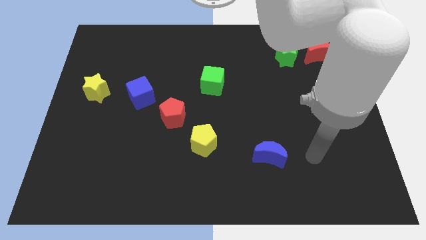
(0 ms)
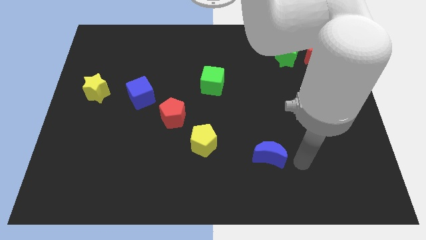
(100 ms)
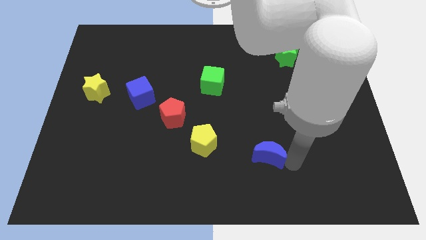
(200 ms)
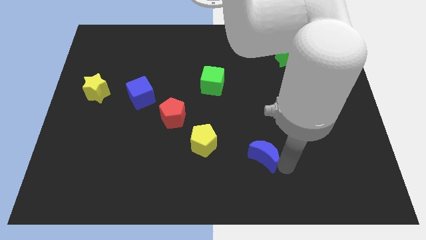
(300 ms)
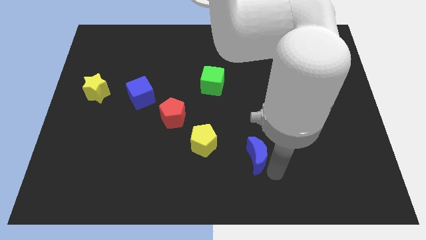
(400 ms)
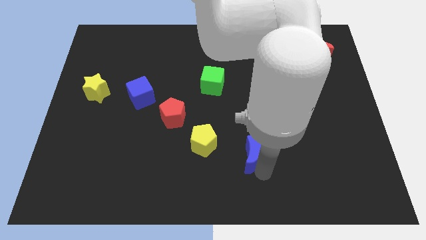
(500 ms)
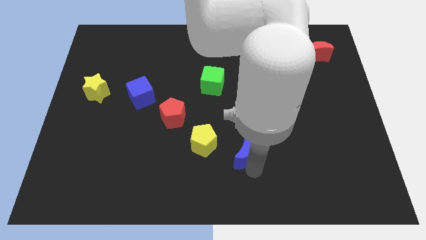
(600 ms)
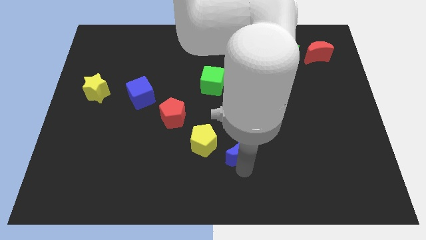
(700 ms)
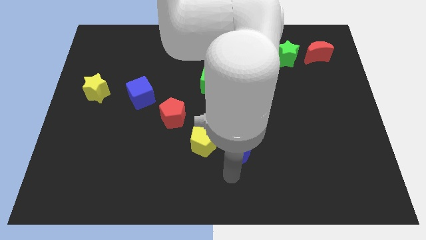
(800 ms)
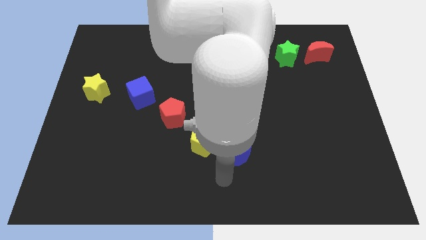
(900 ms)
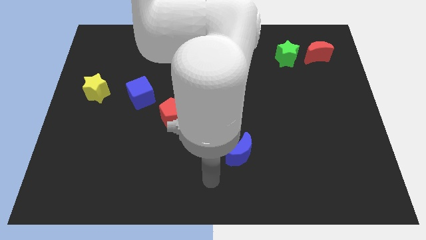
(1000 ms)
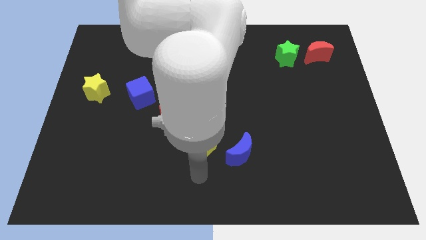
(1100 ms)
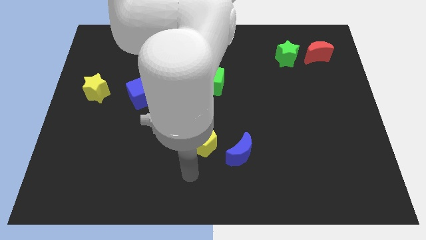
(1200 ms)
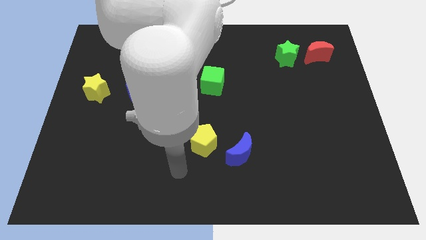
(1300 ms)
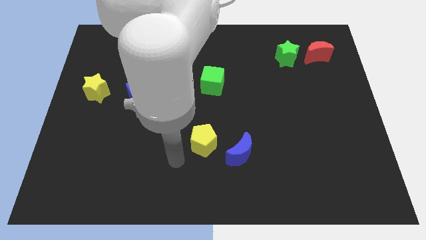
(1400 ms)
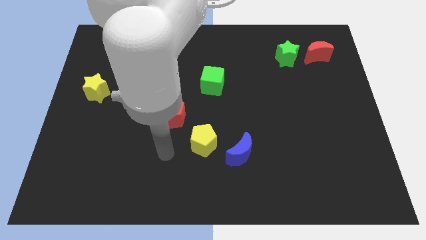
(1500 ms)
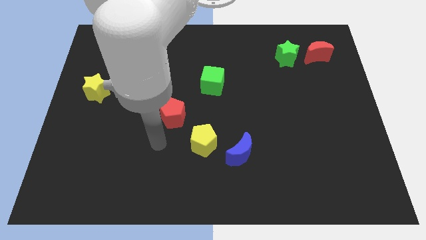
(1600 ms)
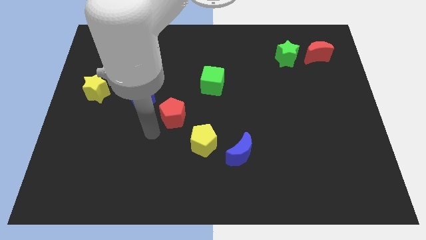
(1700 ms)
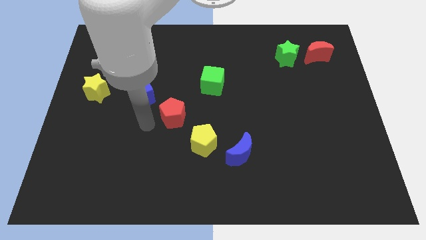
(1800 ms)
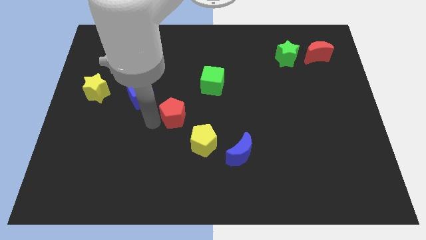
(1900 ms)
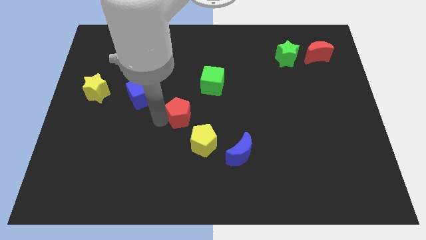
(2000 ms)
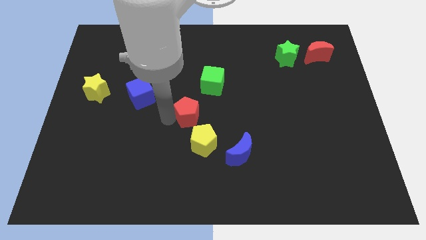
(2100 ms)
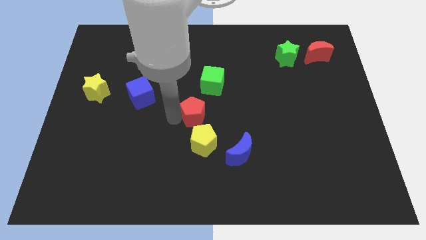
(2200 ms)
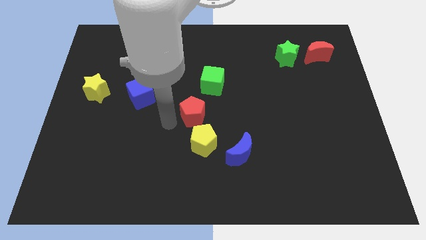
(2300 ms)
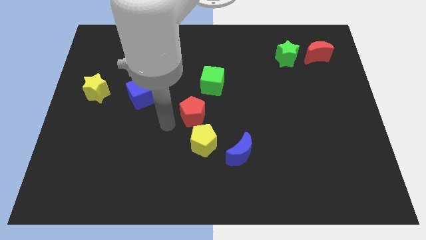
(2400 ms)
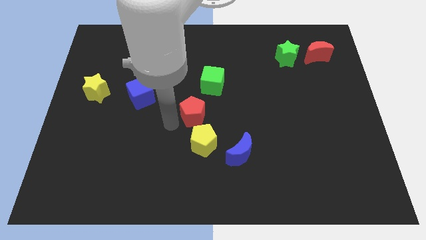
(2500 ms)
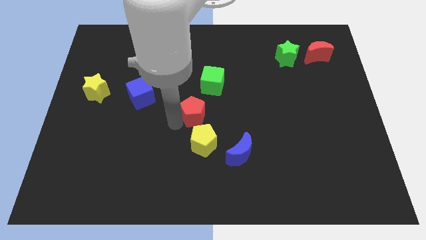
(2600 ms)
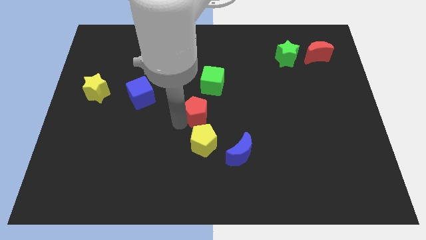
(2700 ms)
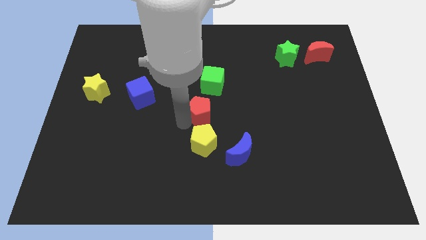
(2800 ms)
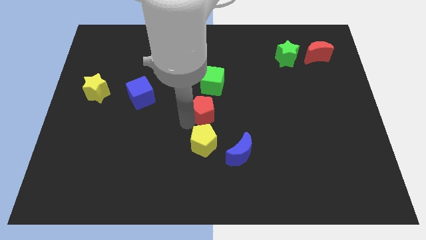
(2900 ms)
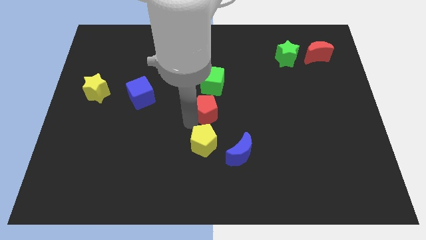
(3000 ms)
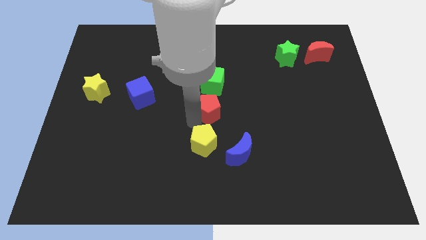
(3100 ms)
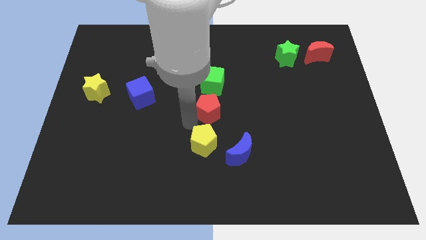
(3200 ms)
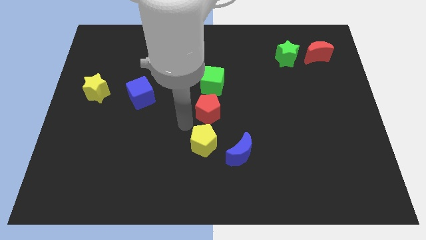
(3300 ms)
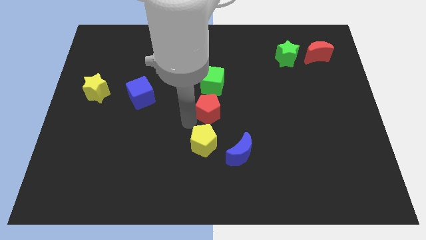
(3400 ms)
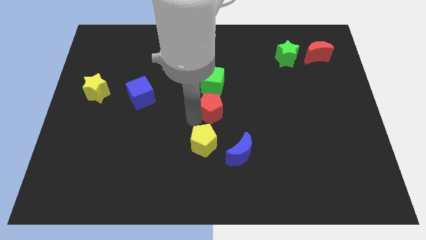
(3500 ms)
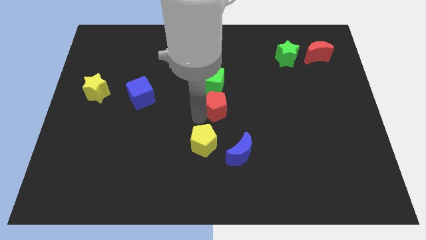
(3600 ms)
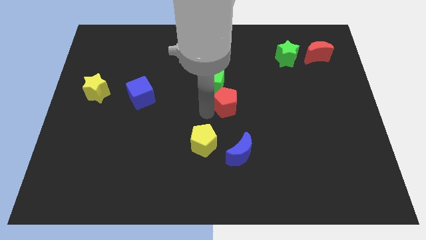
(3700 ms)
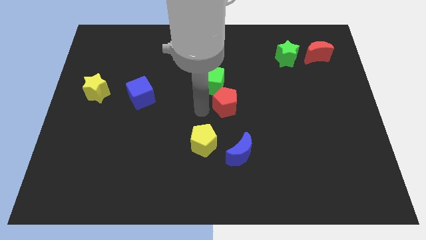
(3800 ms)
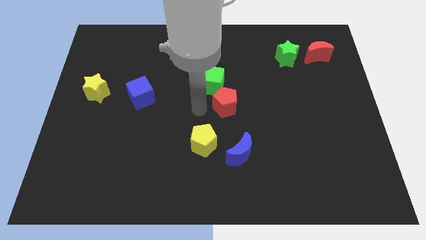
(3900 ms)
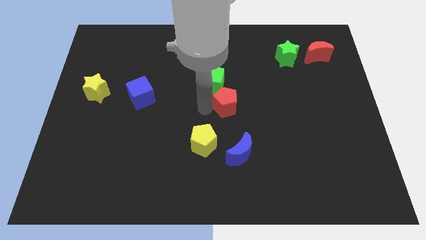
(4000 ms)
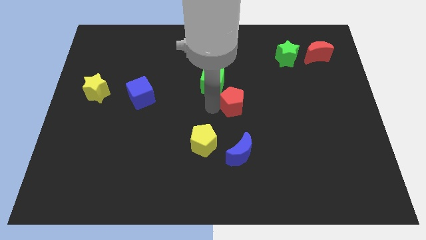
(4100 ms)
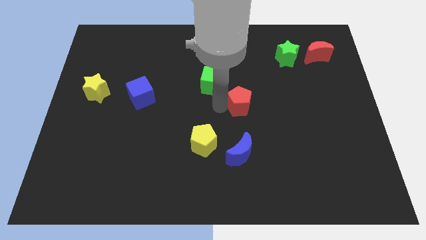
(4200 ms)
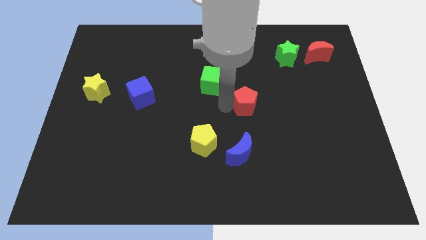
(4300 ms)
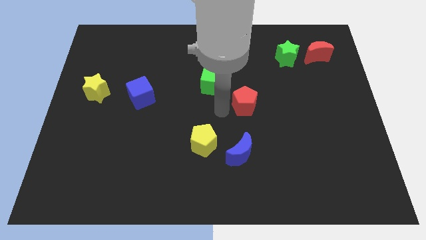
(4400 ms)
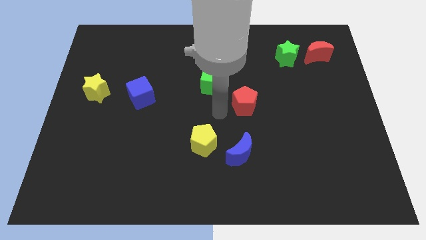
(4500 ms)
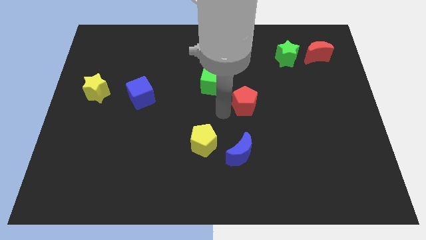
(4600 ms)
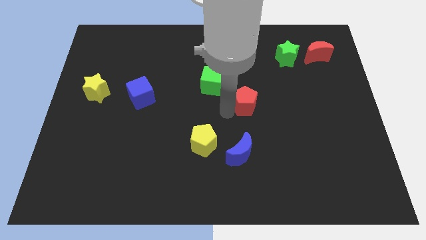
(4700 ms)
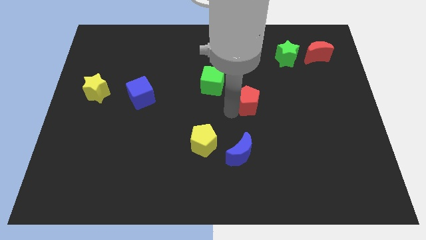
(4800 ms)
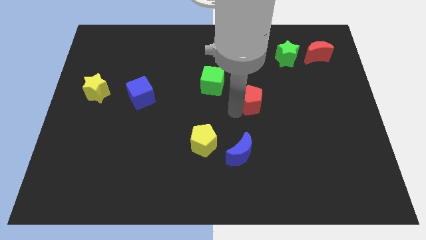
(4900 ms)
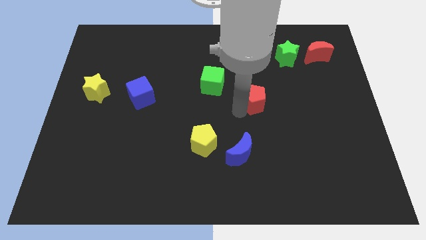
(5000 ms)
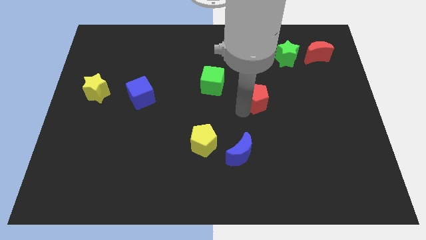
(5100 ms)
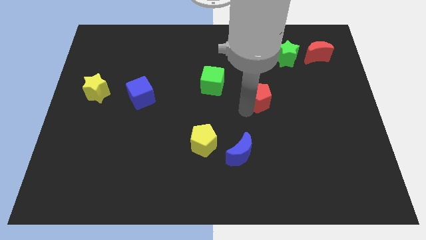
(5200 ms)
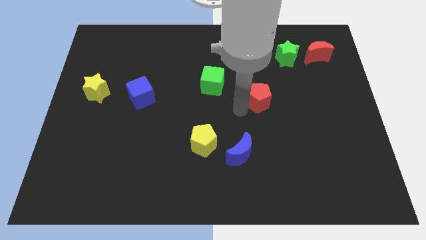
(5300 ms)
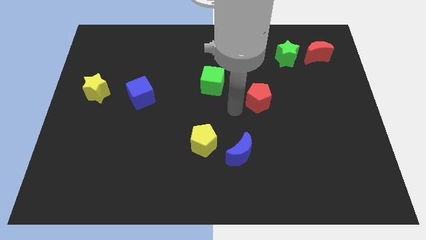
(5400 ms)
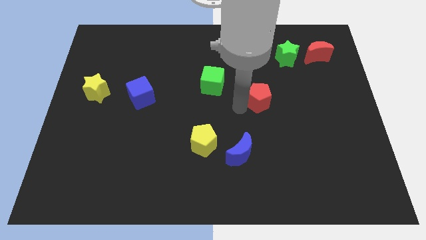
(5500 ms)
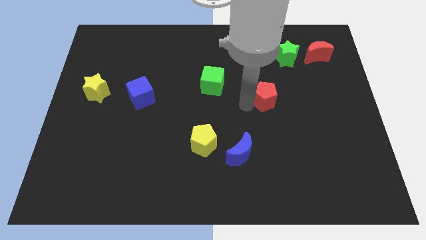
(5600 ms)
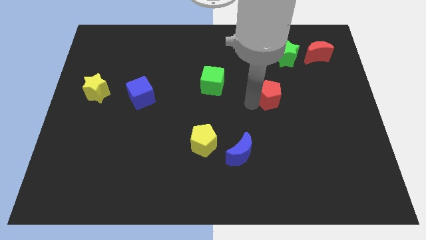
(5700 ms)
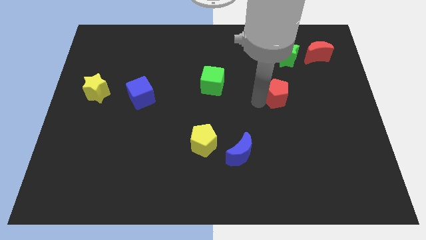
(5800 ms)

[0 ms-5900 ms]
slide the red pentagon to the bottom side of the green star

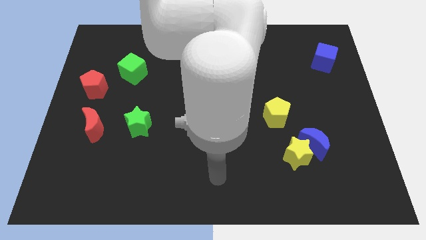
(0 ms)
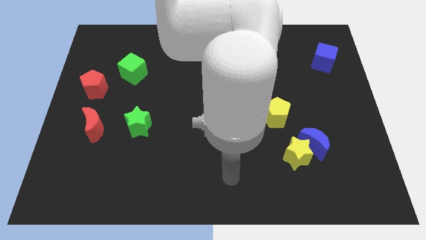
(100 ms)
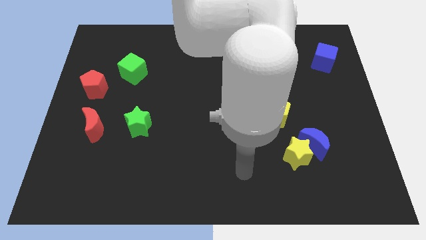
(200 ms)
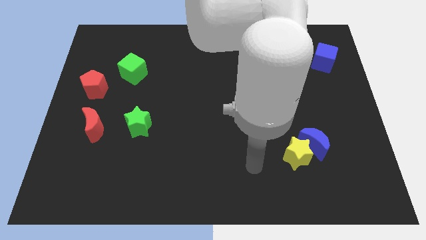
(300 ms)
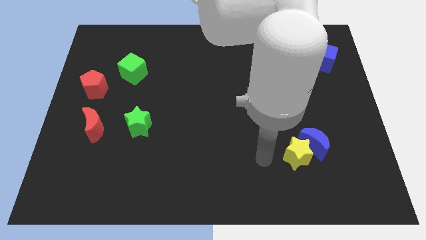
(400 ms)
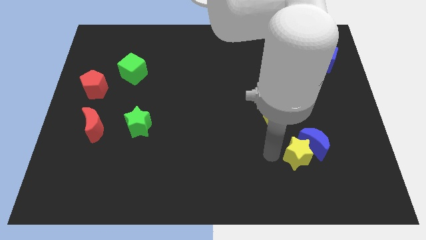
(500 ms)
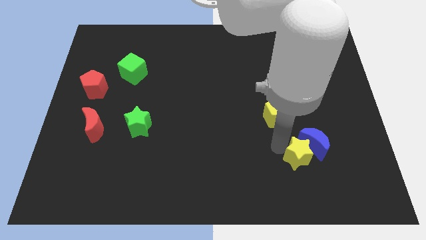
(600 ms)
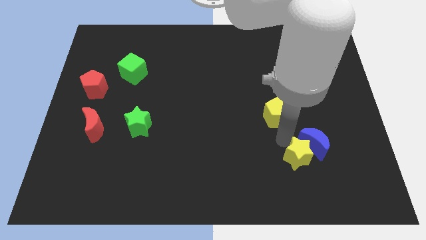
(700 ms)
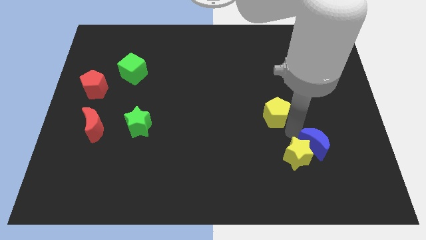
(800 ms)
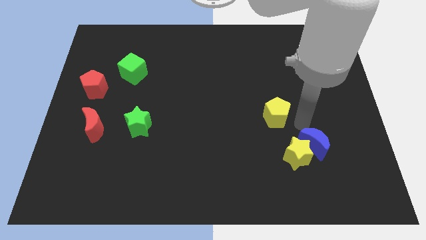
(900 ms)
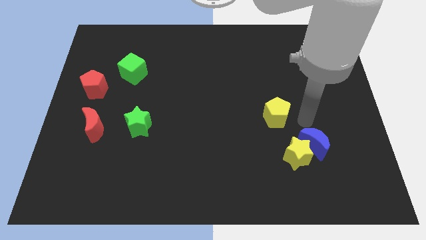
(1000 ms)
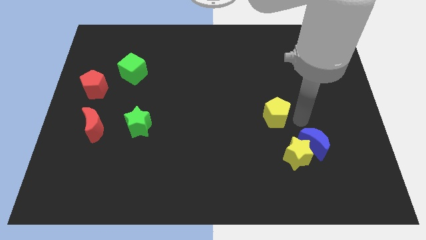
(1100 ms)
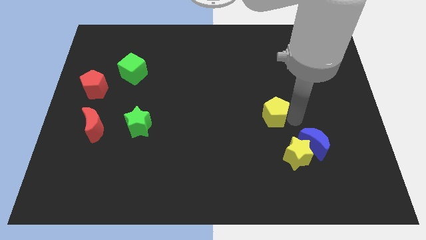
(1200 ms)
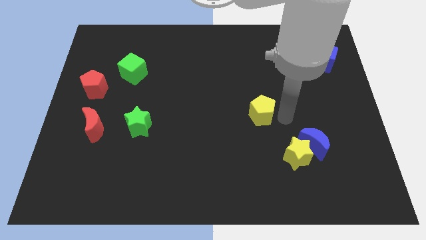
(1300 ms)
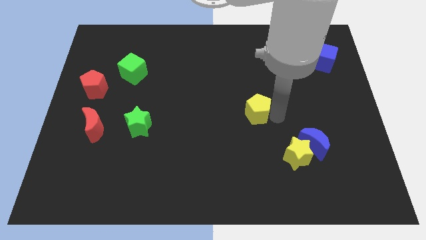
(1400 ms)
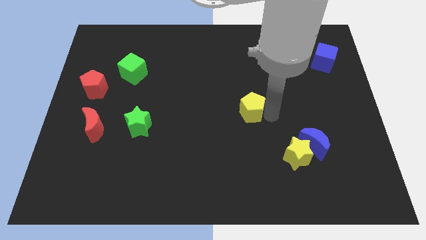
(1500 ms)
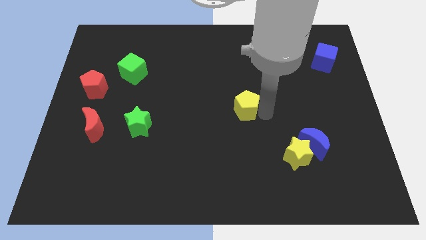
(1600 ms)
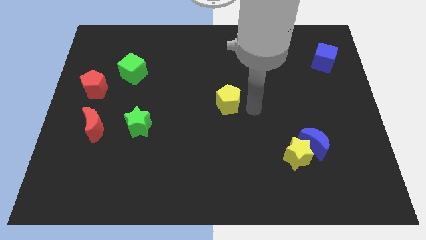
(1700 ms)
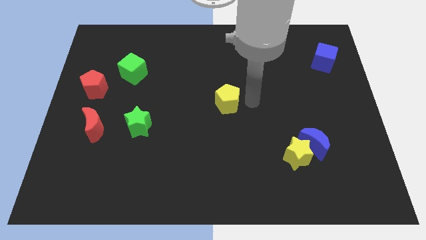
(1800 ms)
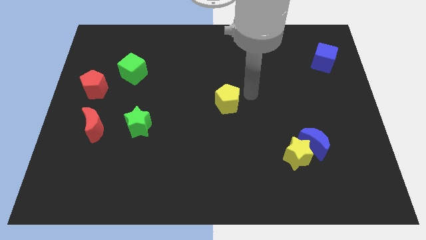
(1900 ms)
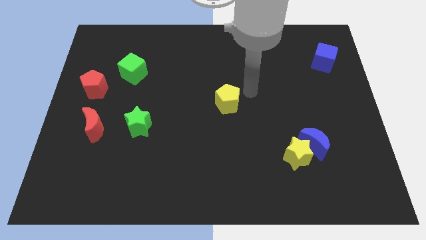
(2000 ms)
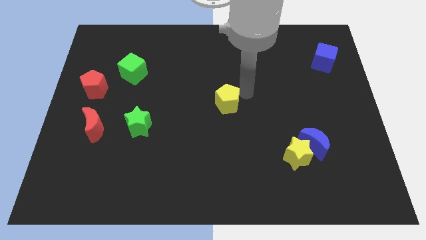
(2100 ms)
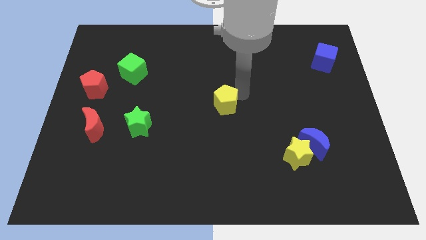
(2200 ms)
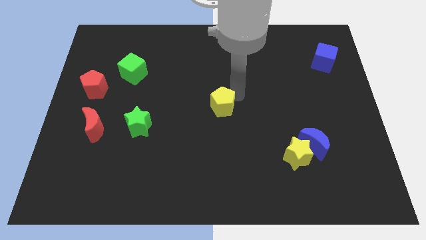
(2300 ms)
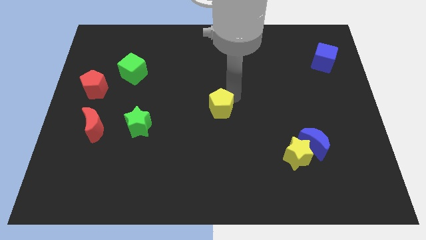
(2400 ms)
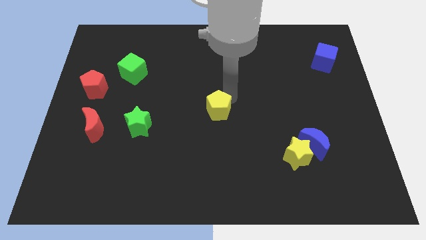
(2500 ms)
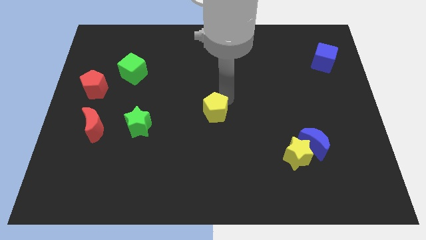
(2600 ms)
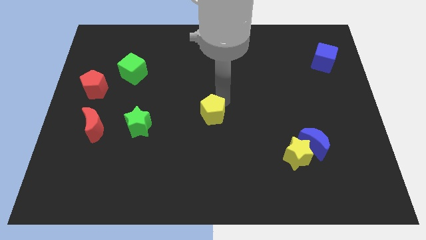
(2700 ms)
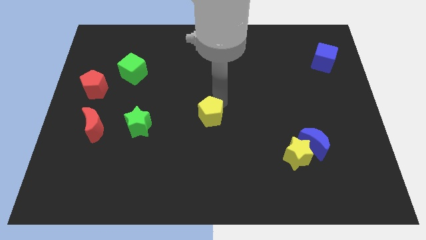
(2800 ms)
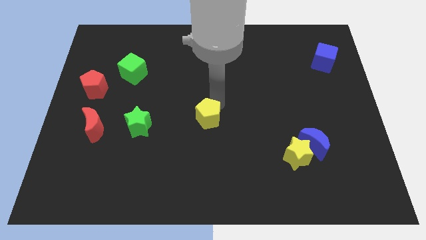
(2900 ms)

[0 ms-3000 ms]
move the yellow pentagon to the right of the green star
